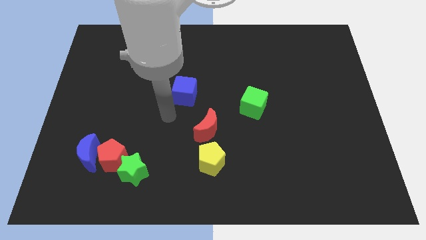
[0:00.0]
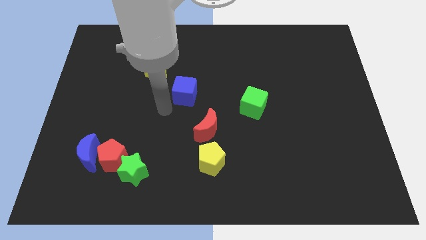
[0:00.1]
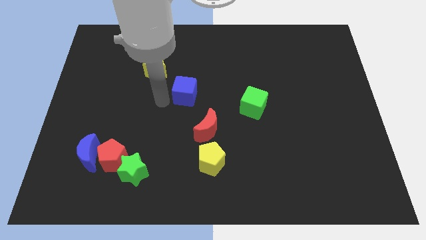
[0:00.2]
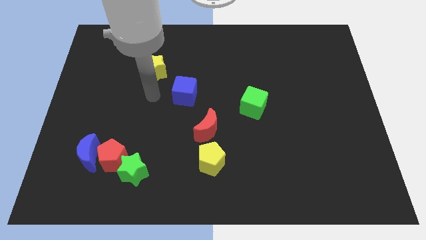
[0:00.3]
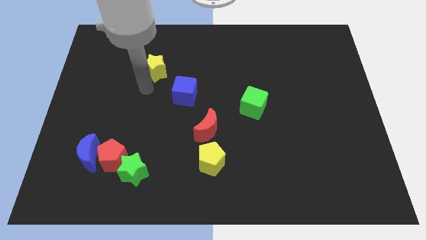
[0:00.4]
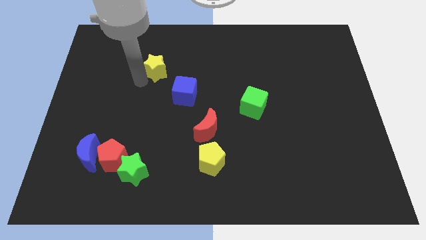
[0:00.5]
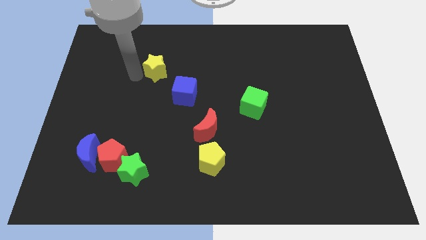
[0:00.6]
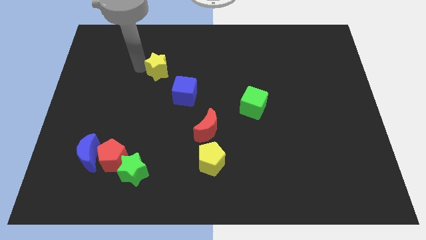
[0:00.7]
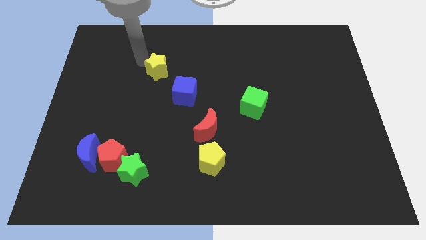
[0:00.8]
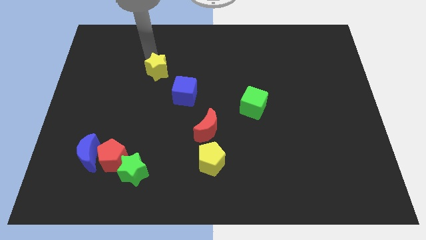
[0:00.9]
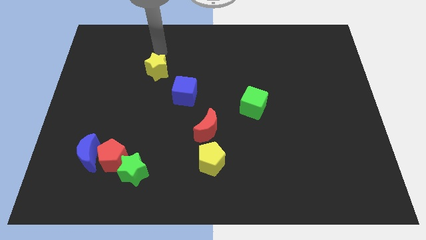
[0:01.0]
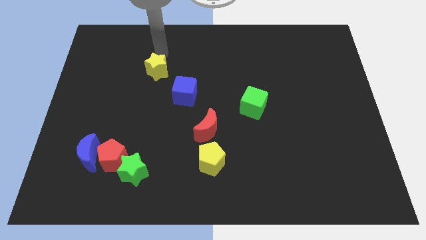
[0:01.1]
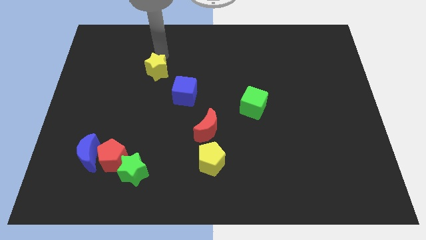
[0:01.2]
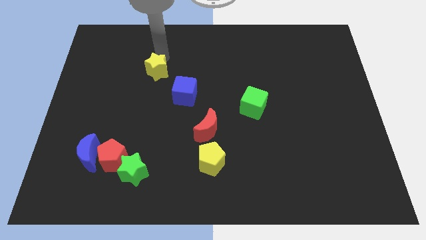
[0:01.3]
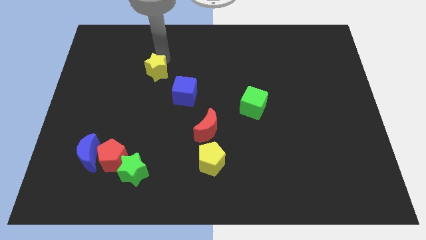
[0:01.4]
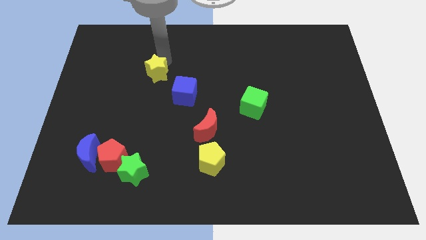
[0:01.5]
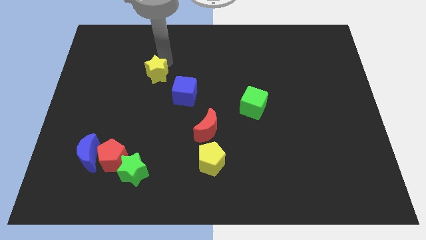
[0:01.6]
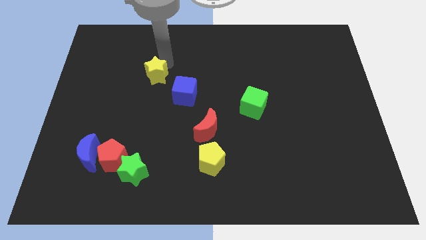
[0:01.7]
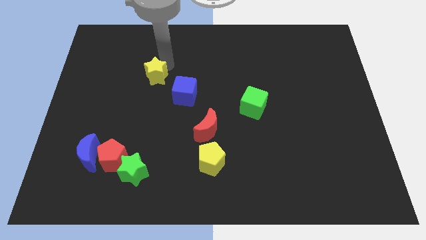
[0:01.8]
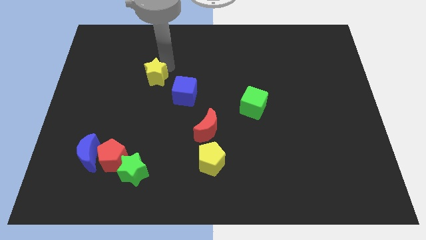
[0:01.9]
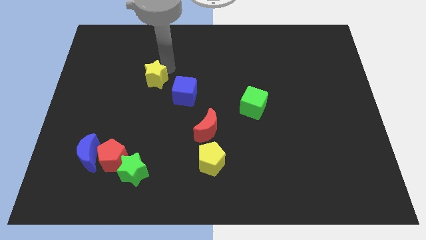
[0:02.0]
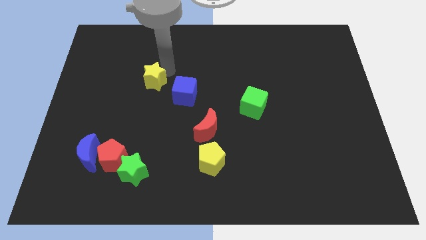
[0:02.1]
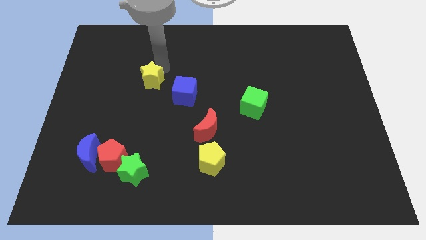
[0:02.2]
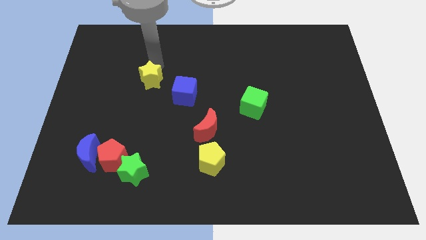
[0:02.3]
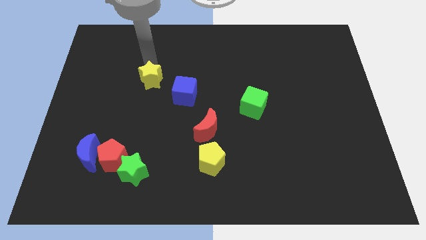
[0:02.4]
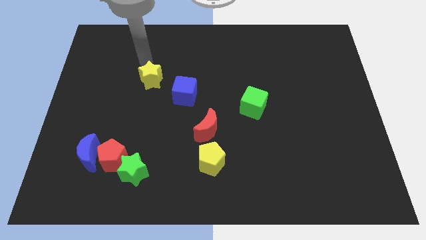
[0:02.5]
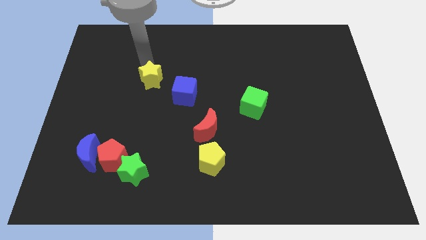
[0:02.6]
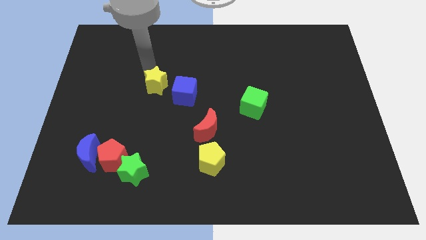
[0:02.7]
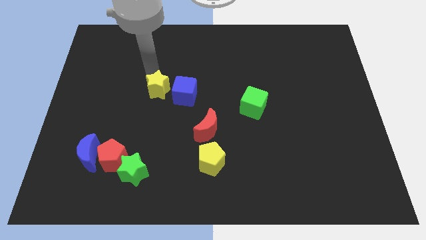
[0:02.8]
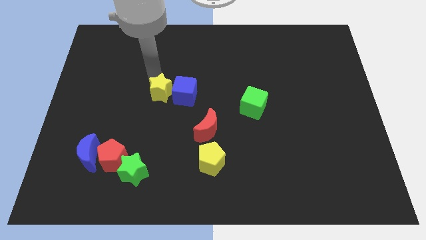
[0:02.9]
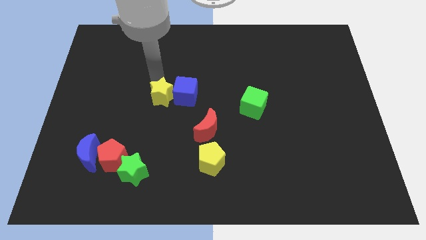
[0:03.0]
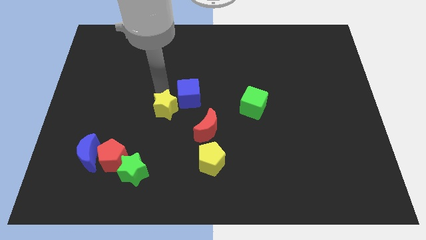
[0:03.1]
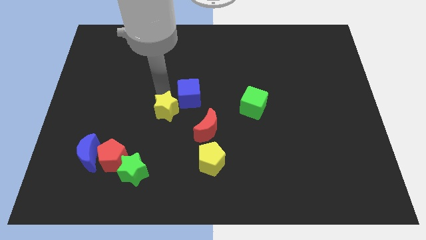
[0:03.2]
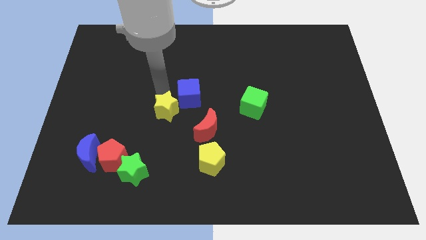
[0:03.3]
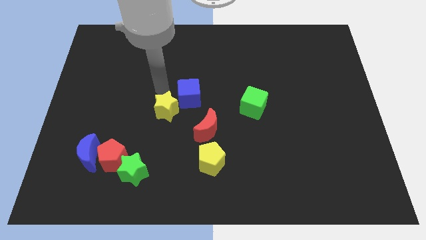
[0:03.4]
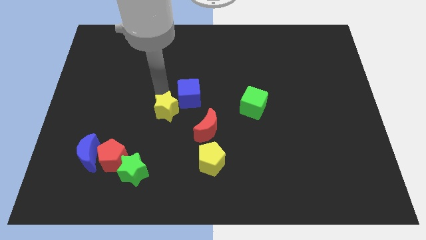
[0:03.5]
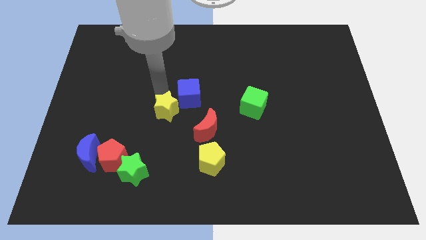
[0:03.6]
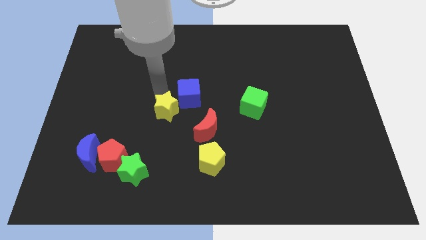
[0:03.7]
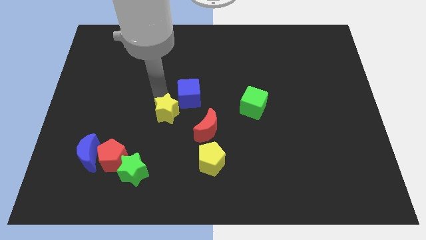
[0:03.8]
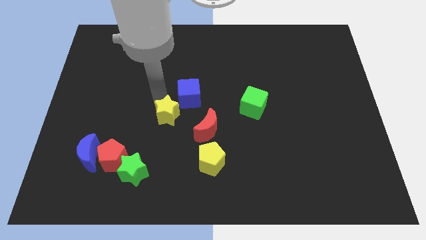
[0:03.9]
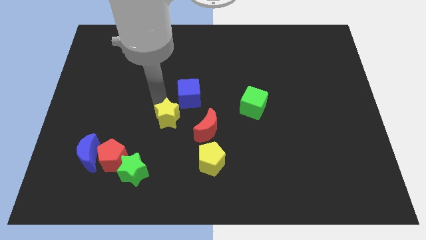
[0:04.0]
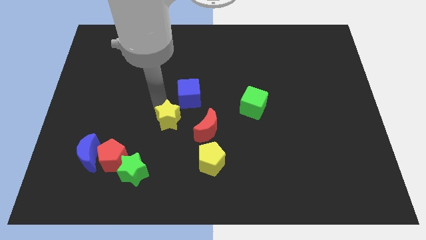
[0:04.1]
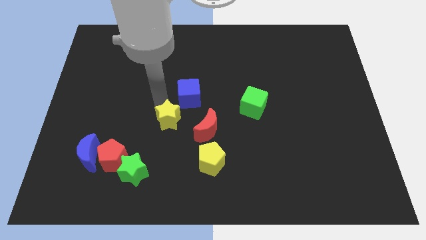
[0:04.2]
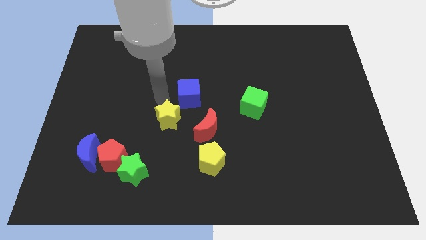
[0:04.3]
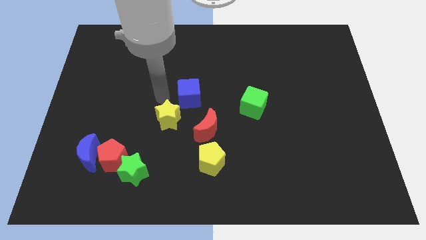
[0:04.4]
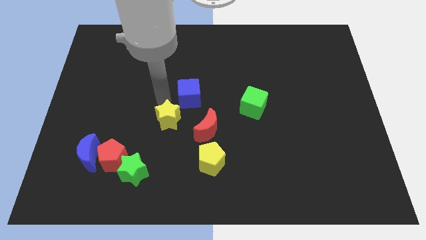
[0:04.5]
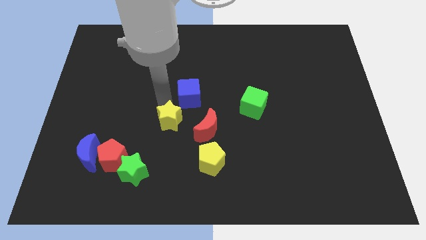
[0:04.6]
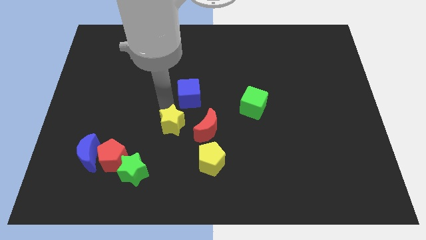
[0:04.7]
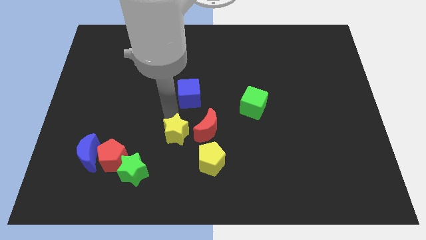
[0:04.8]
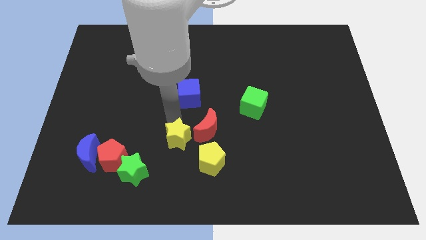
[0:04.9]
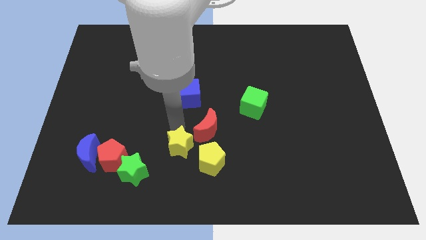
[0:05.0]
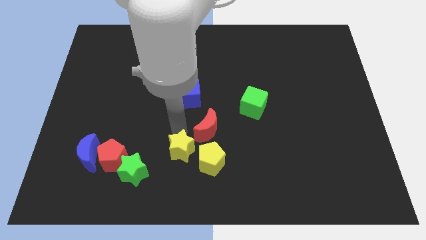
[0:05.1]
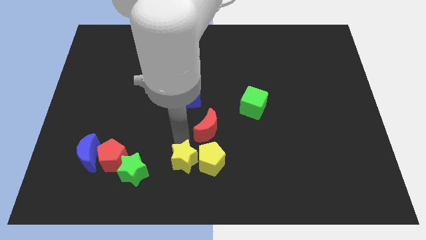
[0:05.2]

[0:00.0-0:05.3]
put the yellow star diagonally down and to the left of the yellow pentagon

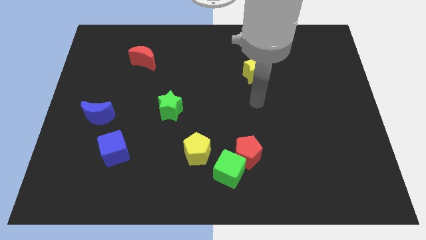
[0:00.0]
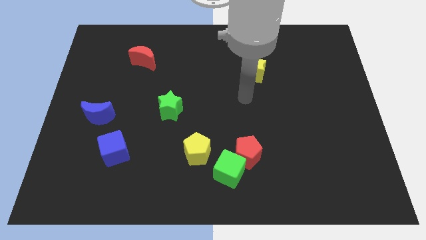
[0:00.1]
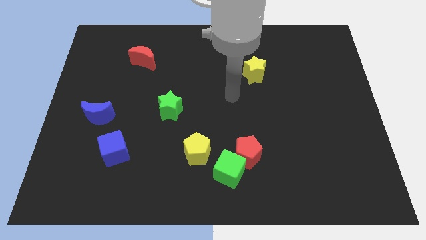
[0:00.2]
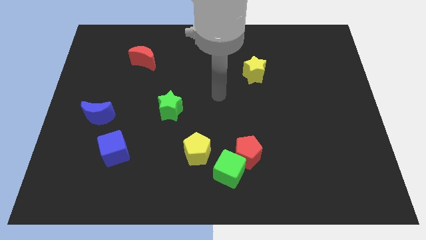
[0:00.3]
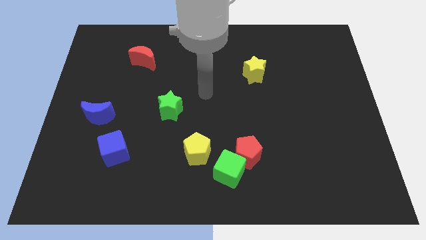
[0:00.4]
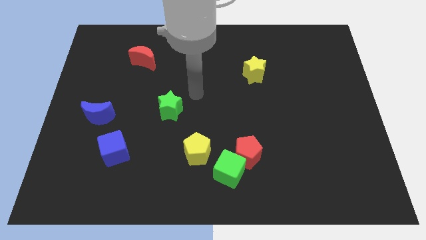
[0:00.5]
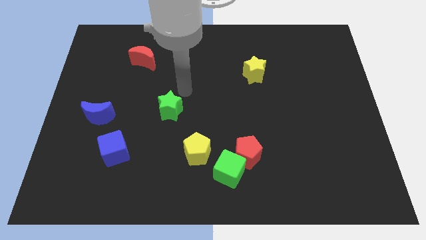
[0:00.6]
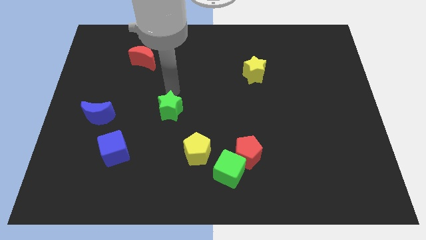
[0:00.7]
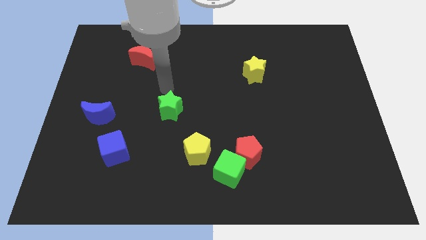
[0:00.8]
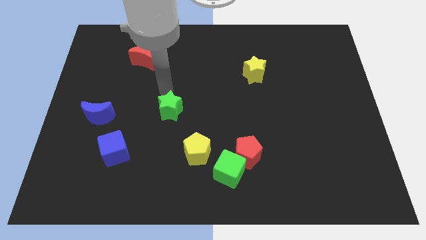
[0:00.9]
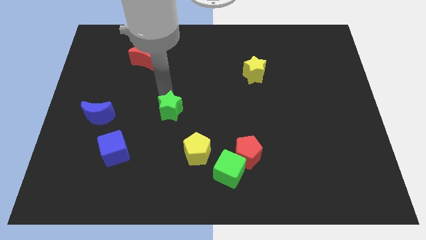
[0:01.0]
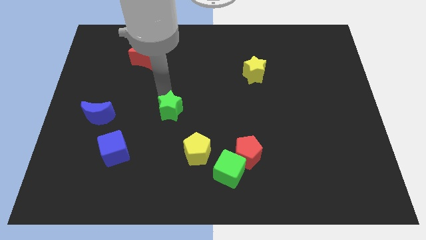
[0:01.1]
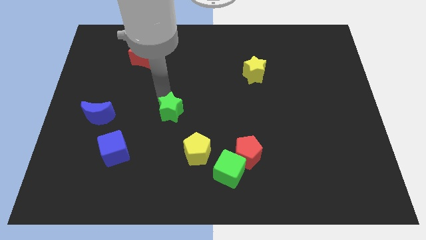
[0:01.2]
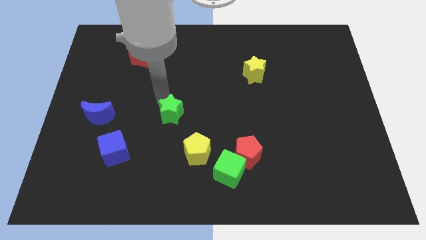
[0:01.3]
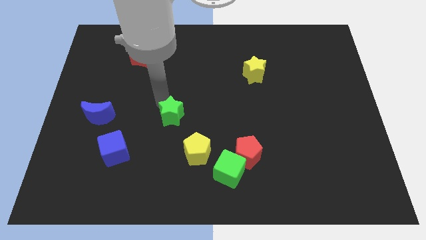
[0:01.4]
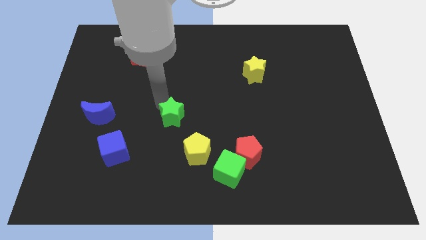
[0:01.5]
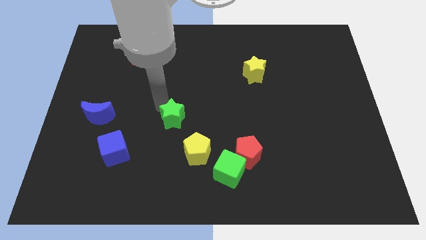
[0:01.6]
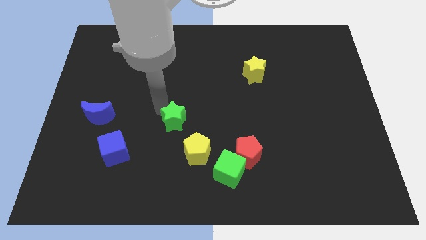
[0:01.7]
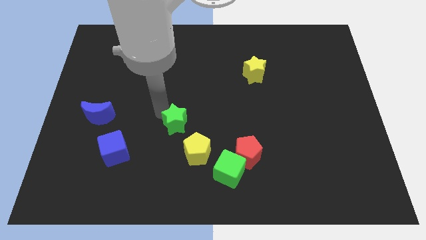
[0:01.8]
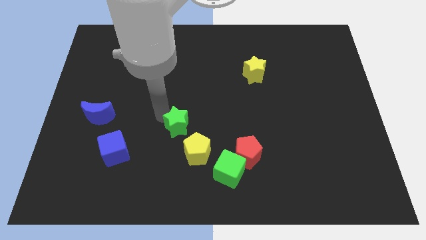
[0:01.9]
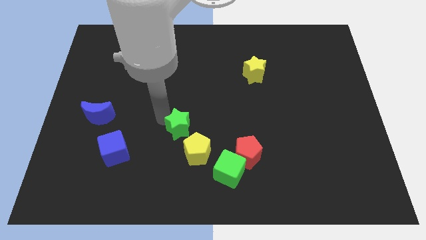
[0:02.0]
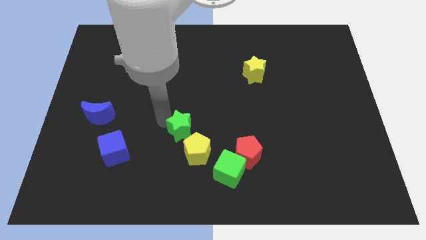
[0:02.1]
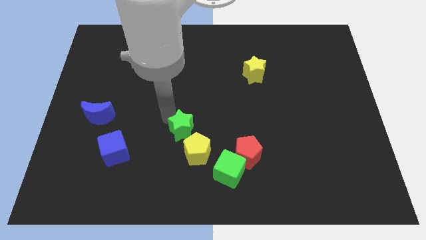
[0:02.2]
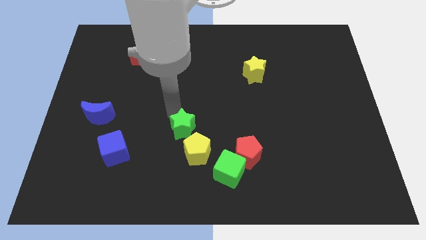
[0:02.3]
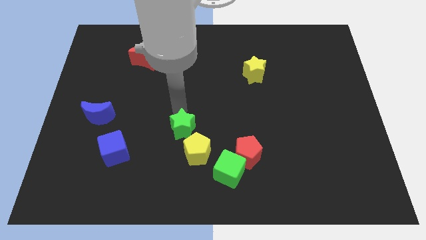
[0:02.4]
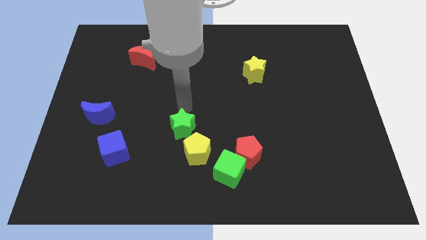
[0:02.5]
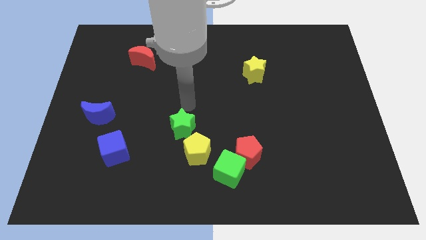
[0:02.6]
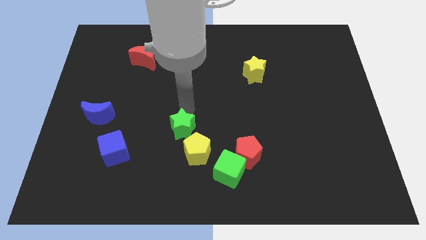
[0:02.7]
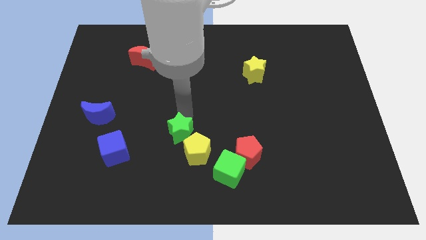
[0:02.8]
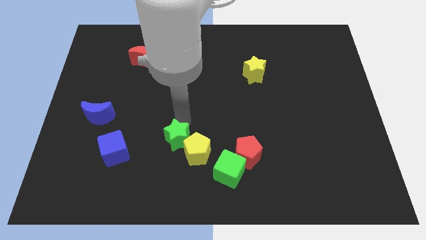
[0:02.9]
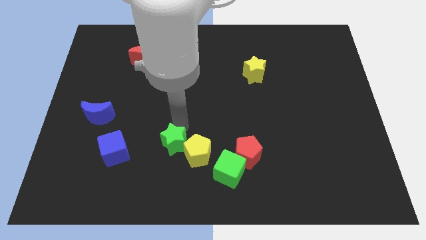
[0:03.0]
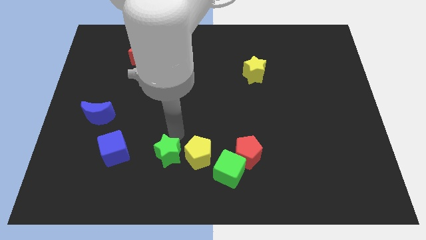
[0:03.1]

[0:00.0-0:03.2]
put the green star to the bottom left side of the yellow pentagon
